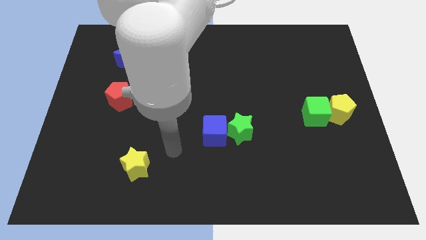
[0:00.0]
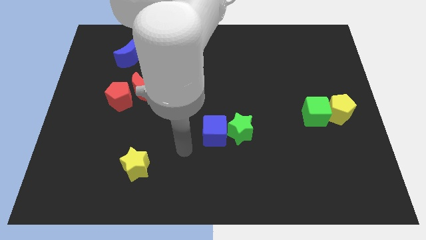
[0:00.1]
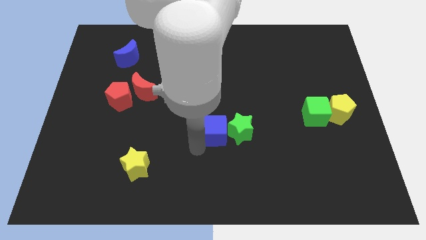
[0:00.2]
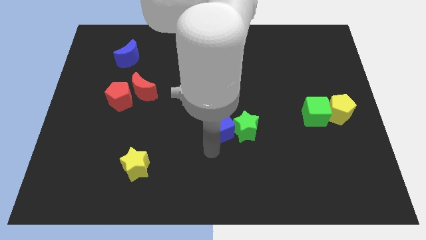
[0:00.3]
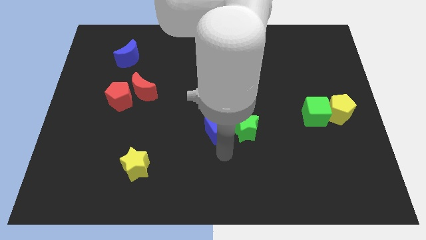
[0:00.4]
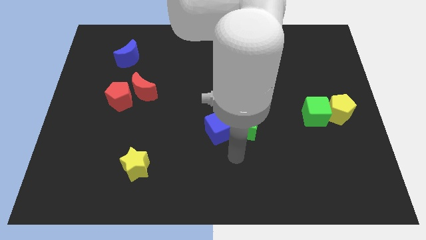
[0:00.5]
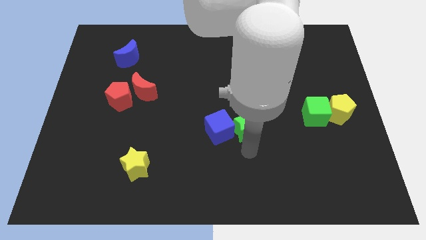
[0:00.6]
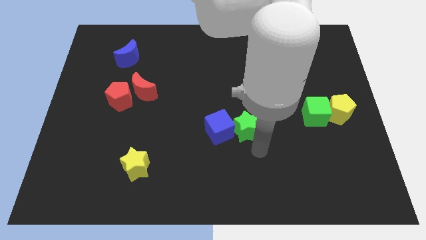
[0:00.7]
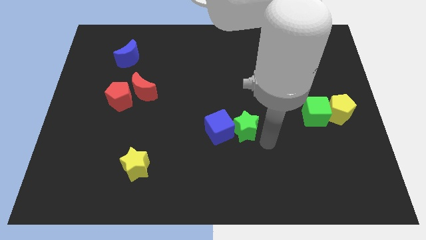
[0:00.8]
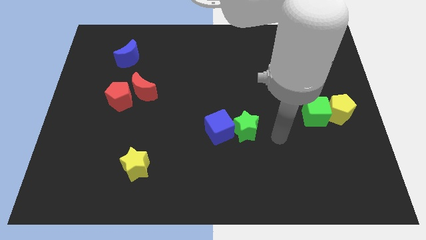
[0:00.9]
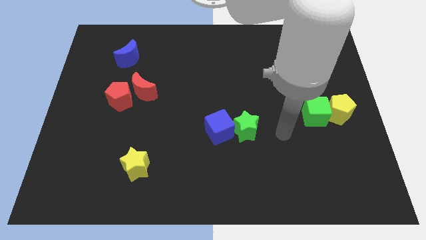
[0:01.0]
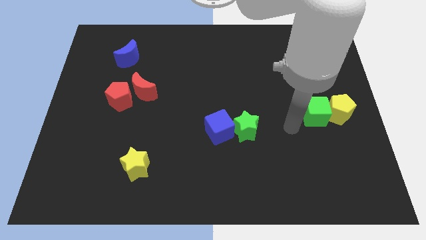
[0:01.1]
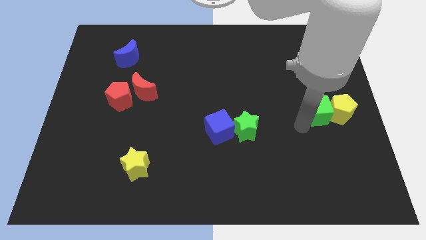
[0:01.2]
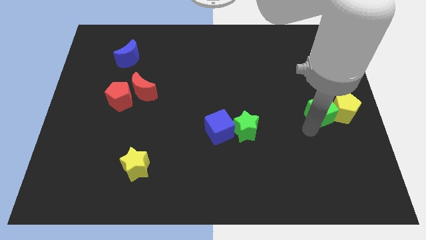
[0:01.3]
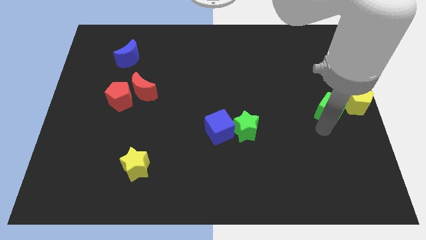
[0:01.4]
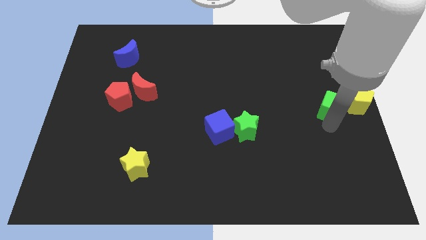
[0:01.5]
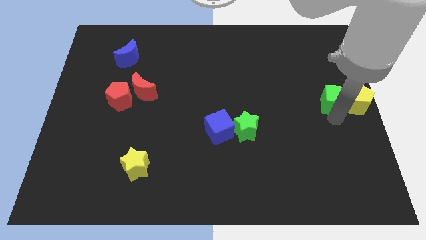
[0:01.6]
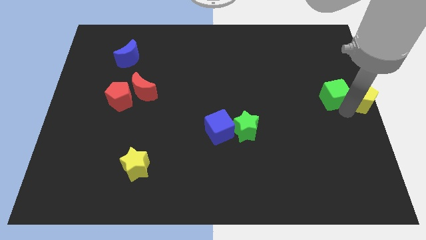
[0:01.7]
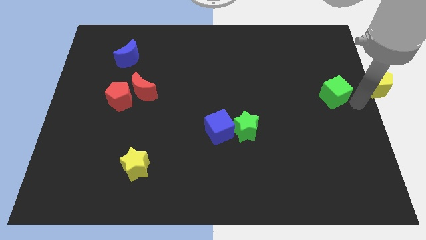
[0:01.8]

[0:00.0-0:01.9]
pull the green cube apart from the yellow pentagon

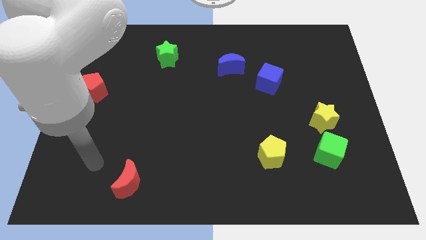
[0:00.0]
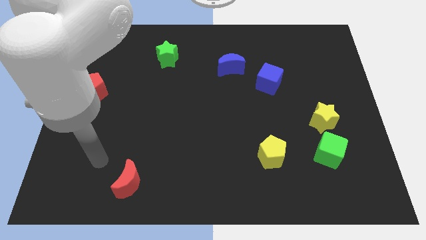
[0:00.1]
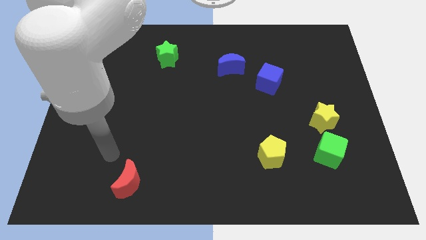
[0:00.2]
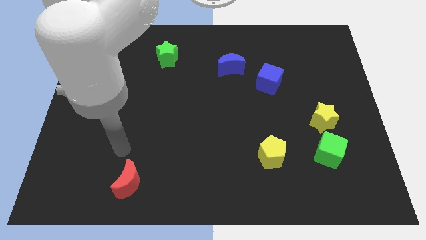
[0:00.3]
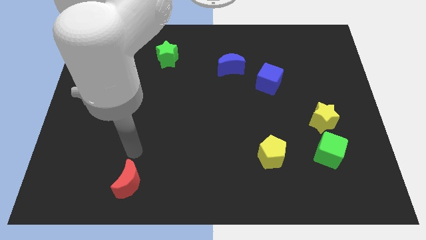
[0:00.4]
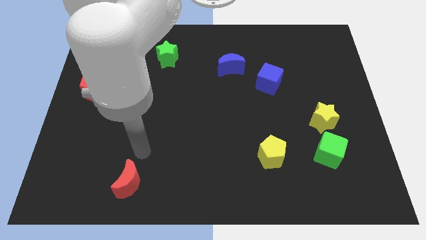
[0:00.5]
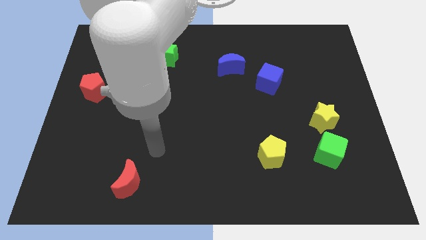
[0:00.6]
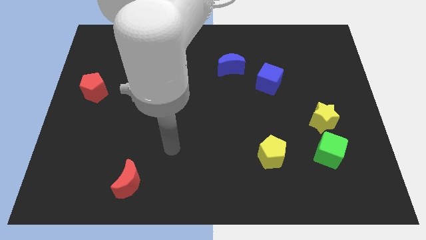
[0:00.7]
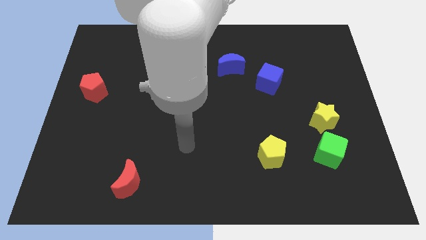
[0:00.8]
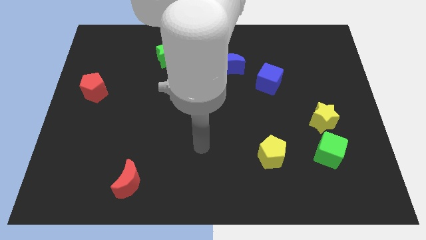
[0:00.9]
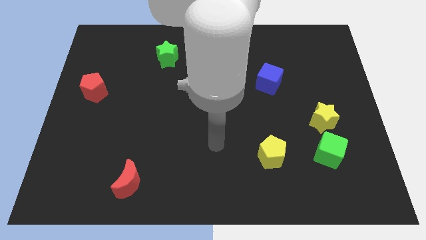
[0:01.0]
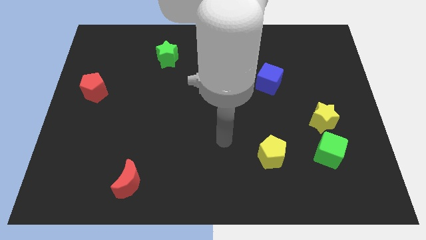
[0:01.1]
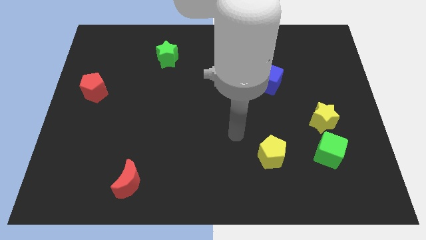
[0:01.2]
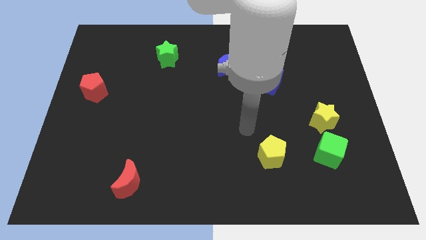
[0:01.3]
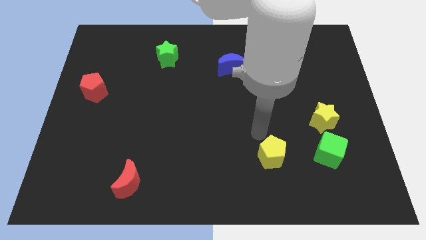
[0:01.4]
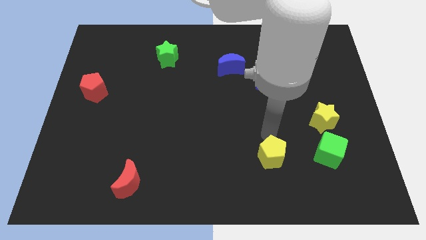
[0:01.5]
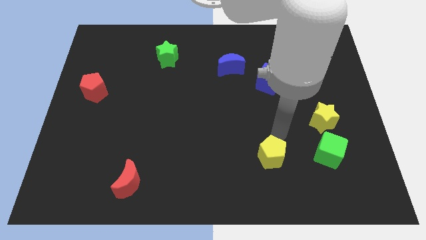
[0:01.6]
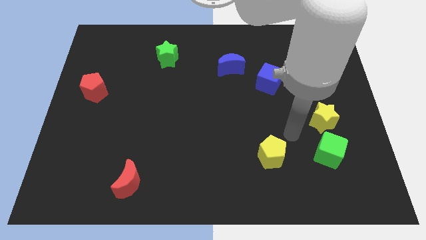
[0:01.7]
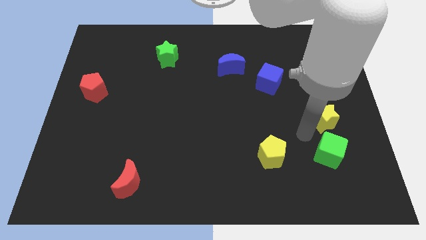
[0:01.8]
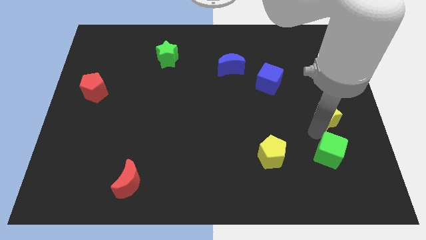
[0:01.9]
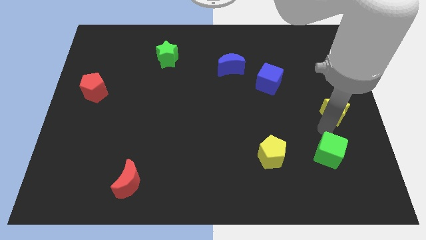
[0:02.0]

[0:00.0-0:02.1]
move the green cube away from the yellow star

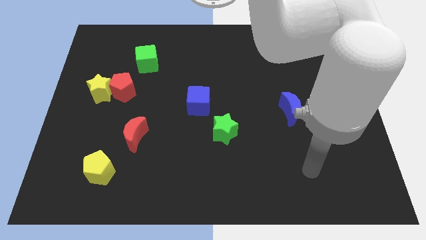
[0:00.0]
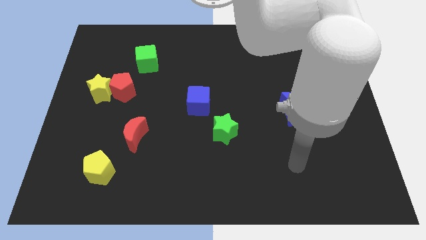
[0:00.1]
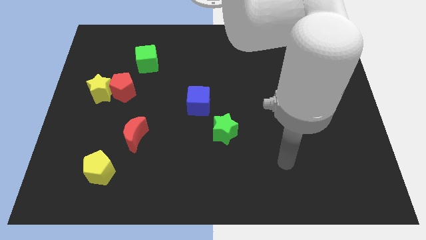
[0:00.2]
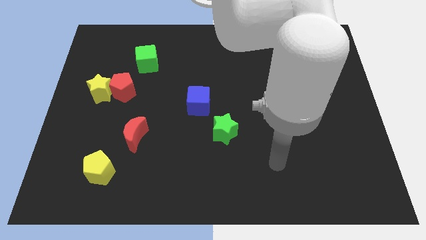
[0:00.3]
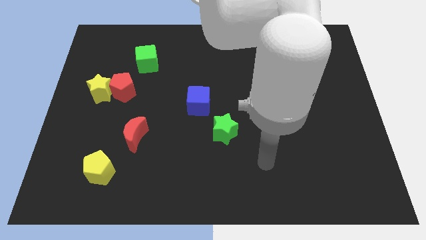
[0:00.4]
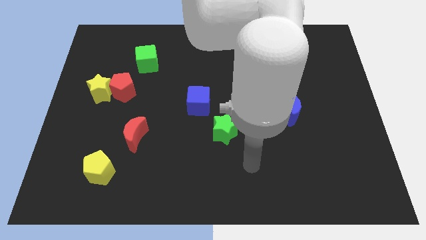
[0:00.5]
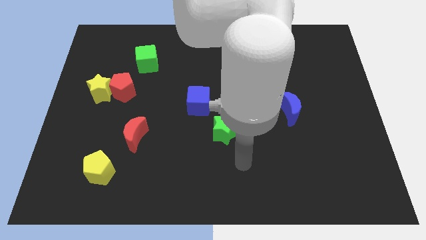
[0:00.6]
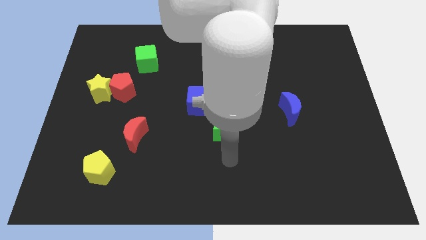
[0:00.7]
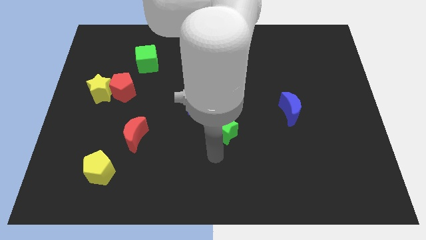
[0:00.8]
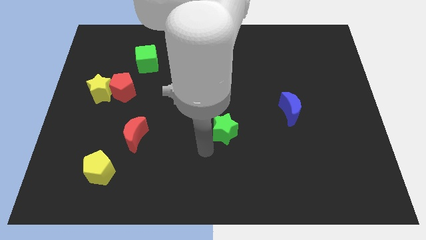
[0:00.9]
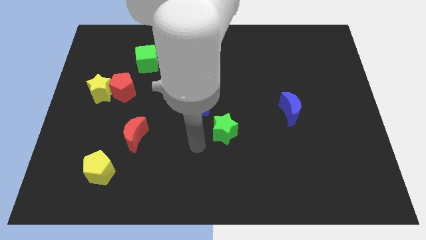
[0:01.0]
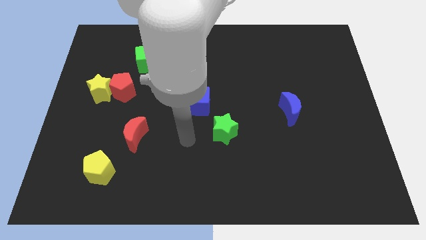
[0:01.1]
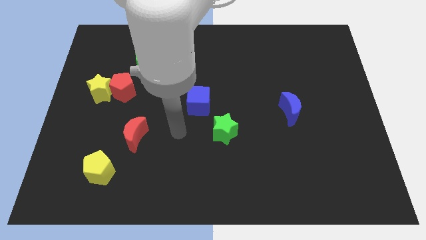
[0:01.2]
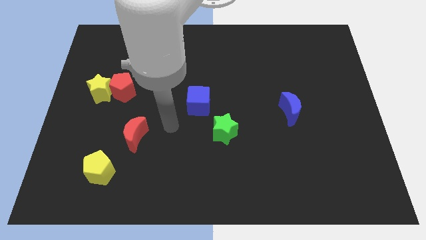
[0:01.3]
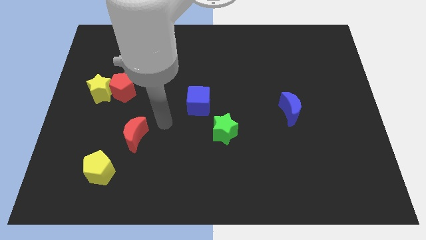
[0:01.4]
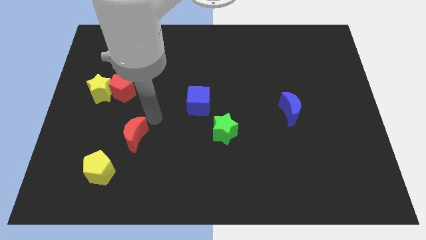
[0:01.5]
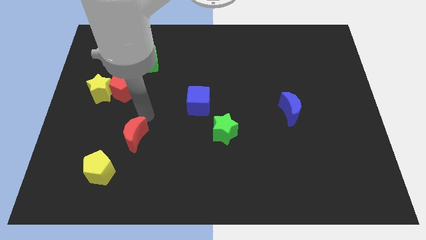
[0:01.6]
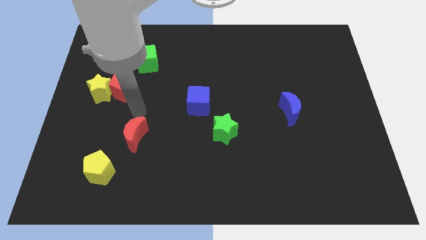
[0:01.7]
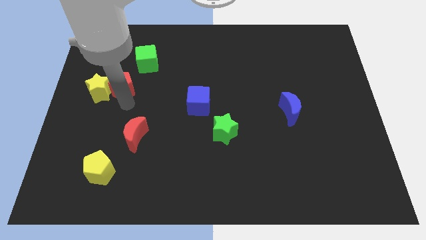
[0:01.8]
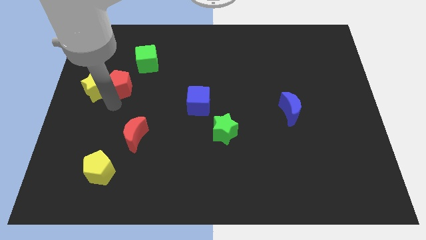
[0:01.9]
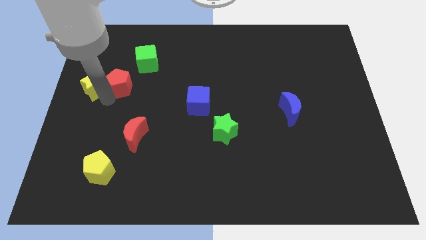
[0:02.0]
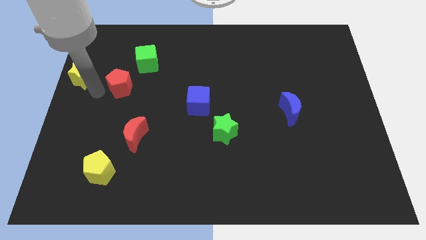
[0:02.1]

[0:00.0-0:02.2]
move the red pentagon away from the yellow star

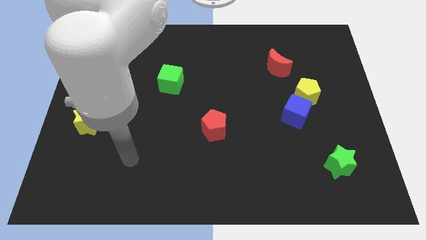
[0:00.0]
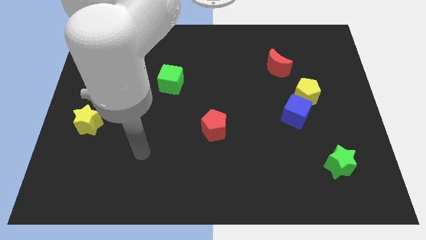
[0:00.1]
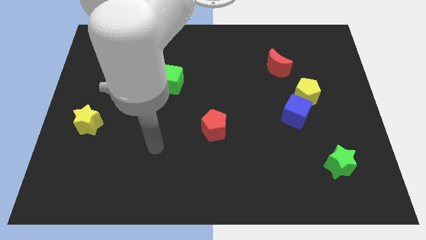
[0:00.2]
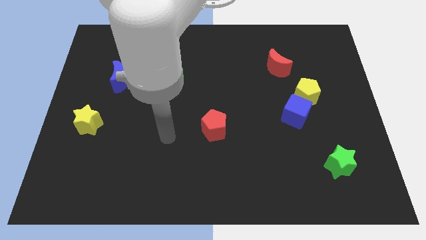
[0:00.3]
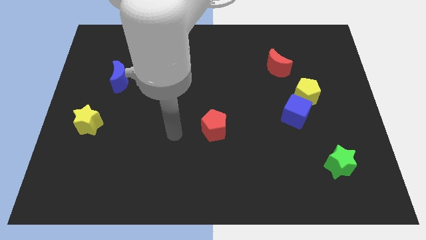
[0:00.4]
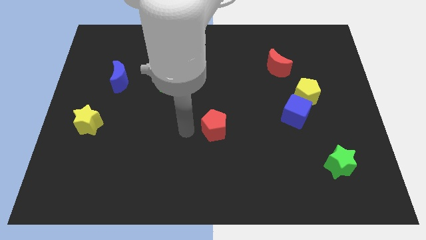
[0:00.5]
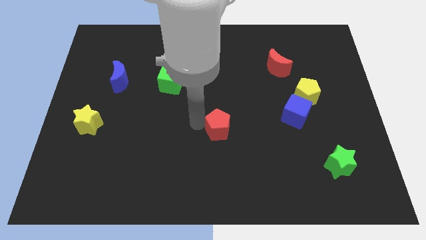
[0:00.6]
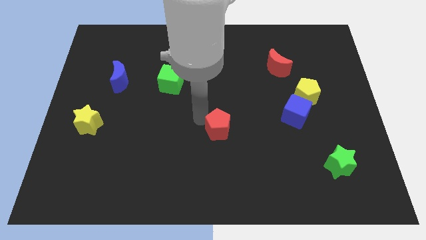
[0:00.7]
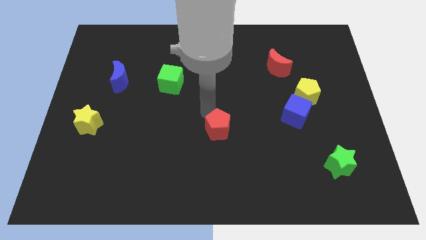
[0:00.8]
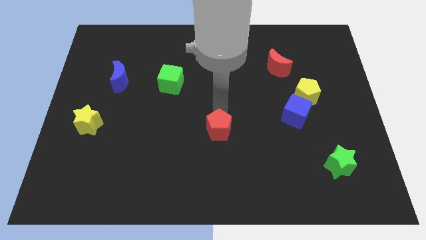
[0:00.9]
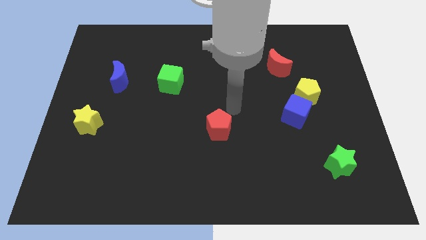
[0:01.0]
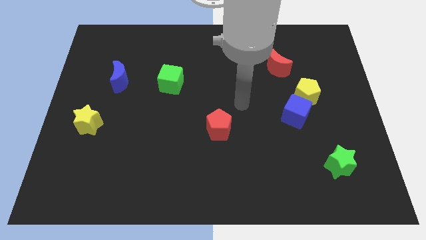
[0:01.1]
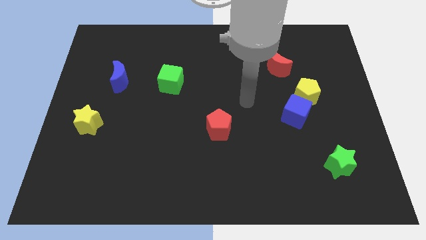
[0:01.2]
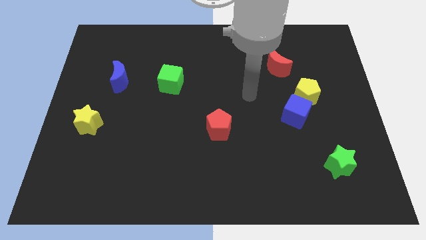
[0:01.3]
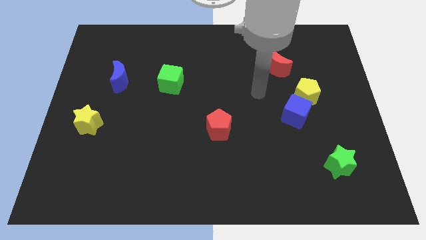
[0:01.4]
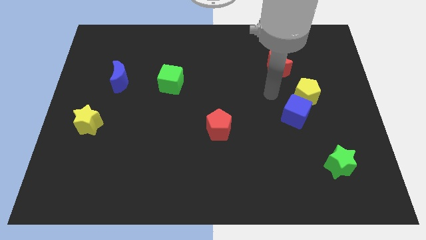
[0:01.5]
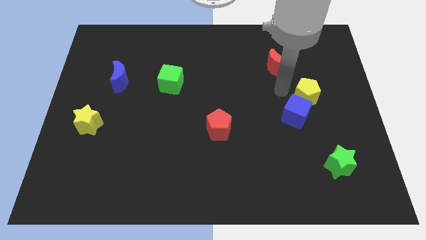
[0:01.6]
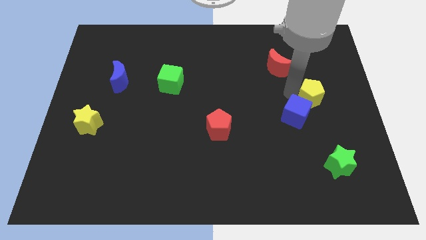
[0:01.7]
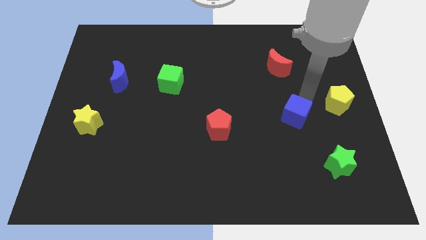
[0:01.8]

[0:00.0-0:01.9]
move the blue cube away from the yellow pentagon

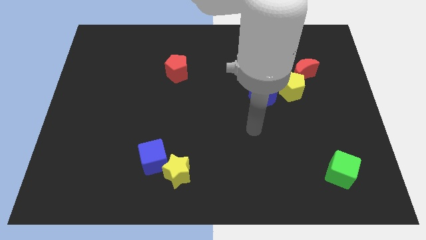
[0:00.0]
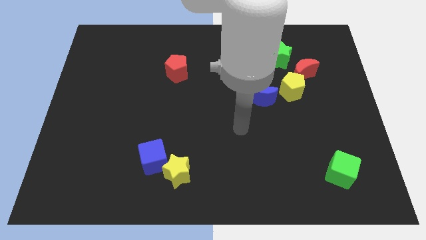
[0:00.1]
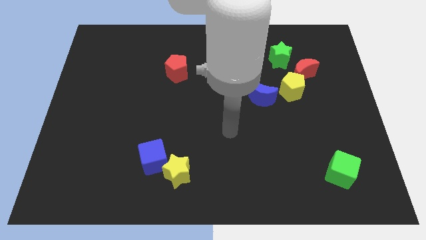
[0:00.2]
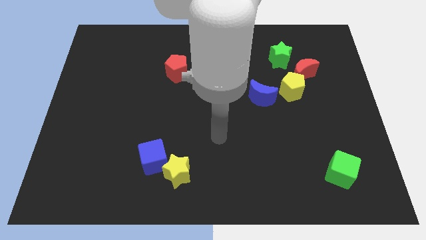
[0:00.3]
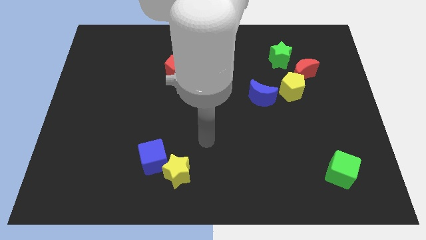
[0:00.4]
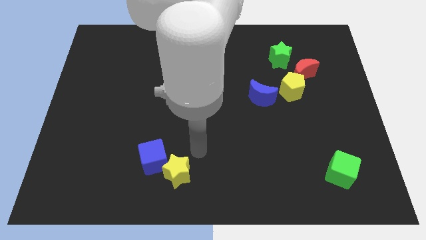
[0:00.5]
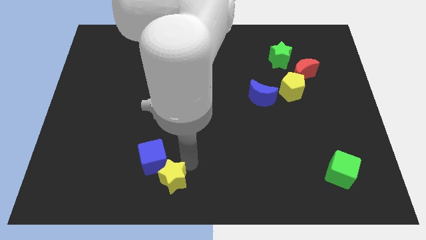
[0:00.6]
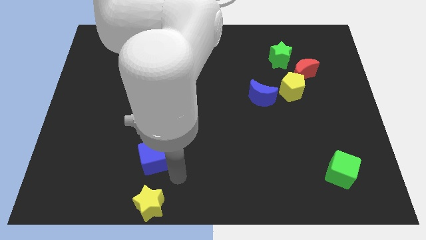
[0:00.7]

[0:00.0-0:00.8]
move the blue cube away from the yellow star

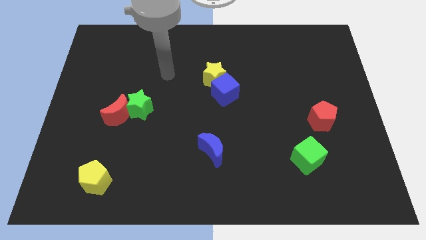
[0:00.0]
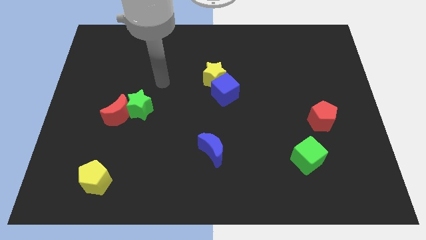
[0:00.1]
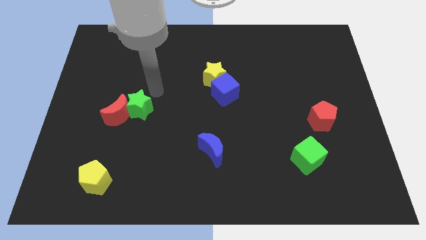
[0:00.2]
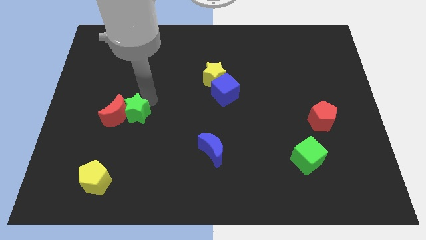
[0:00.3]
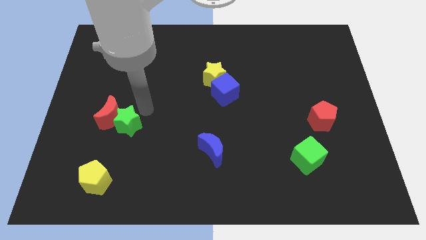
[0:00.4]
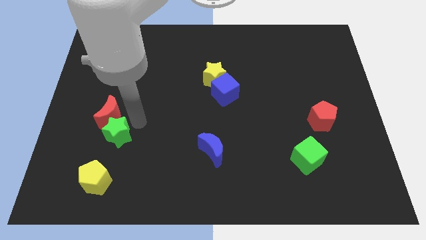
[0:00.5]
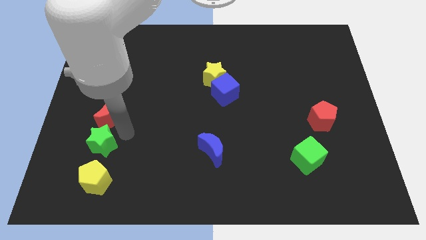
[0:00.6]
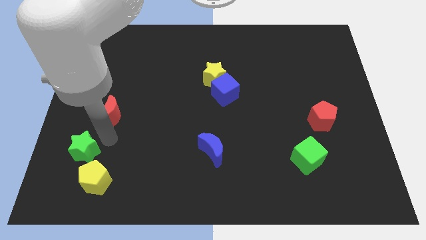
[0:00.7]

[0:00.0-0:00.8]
move the red moon away from the green star
